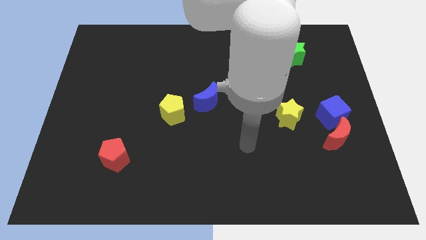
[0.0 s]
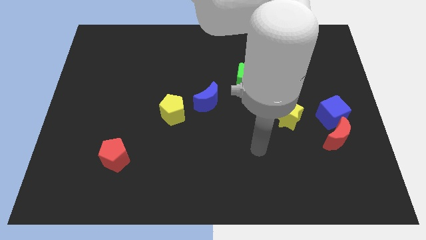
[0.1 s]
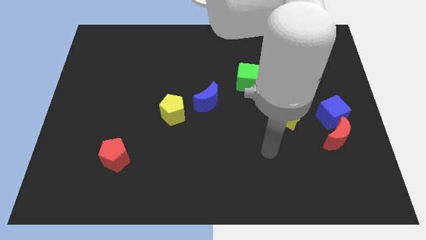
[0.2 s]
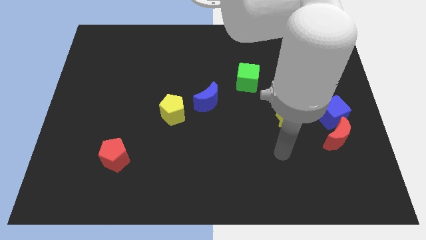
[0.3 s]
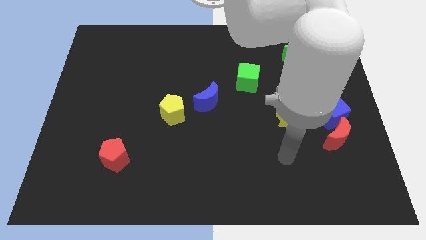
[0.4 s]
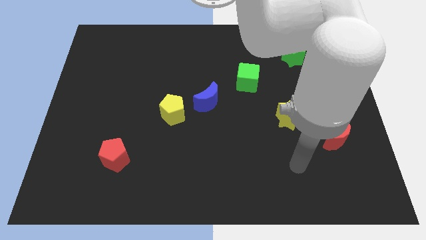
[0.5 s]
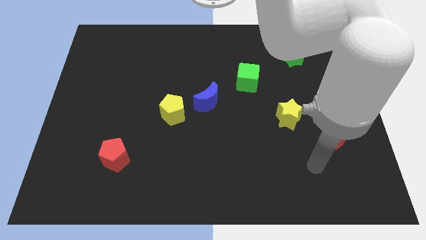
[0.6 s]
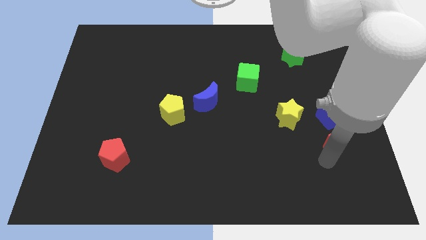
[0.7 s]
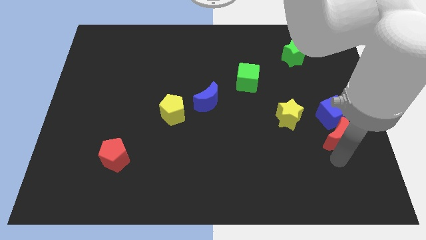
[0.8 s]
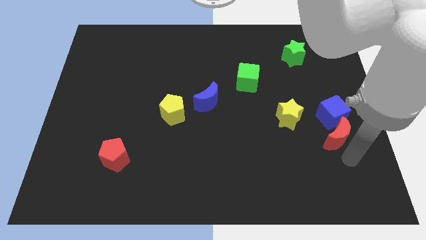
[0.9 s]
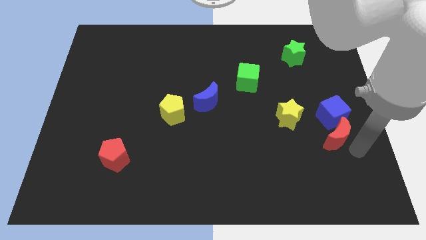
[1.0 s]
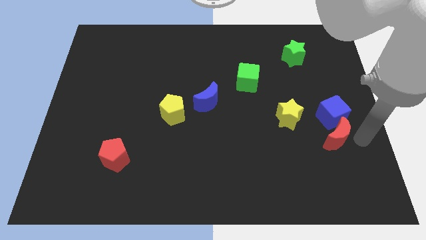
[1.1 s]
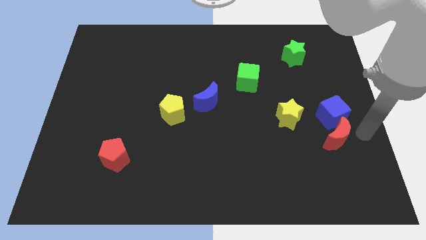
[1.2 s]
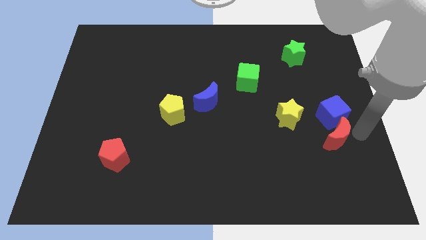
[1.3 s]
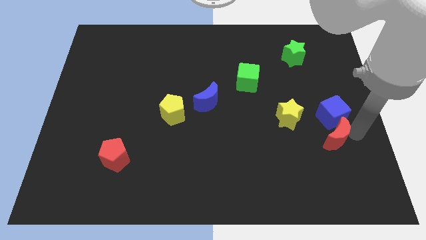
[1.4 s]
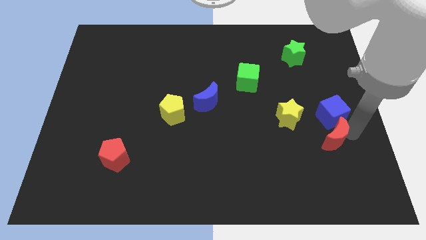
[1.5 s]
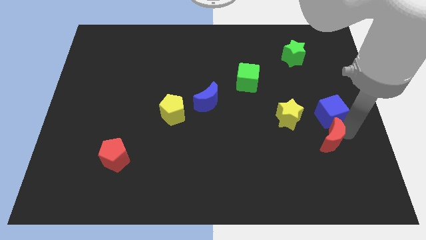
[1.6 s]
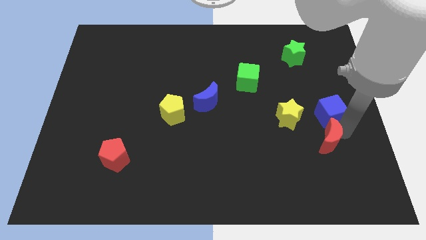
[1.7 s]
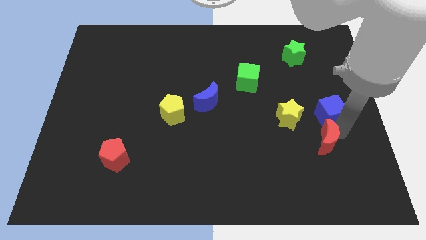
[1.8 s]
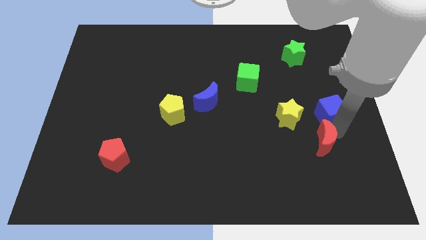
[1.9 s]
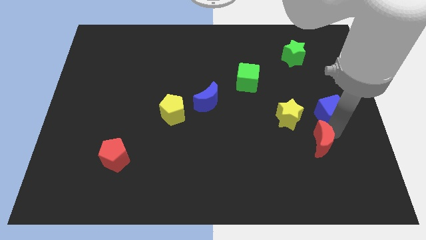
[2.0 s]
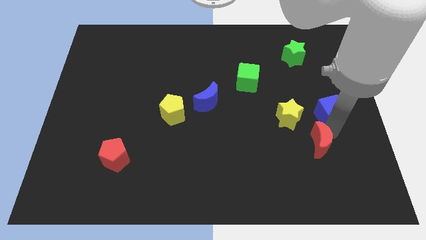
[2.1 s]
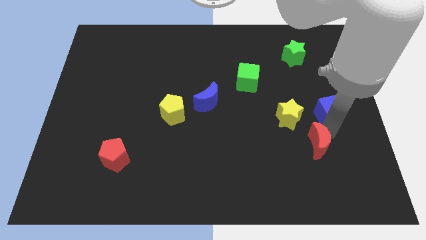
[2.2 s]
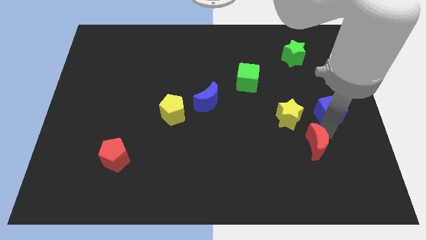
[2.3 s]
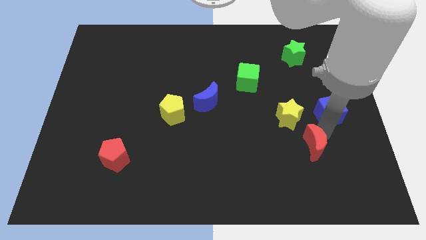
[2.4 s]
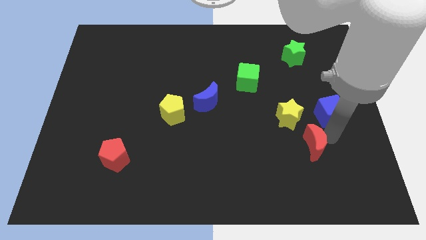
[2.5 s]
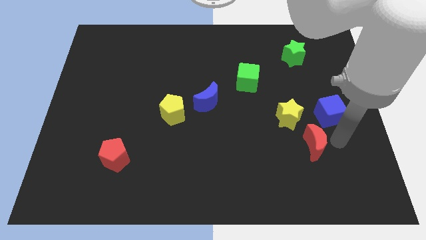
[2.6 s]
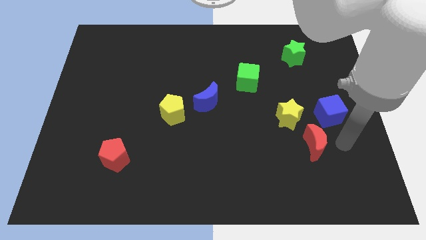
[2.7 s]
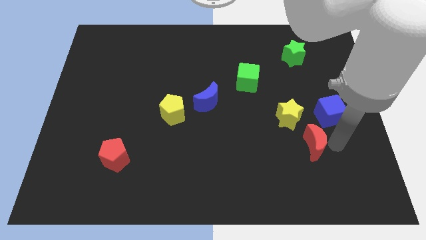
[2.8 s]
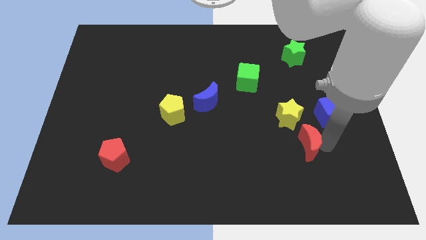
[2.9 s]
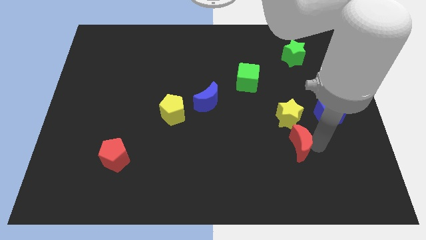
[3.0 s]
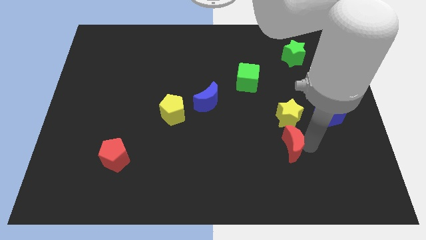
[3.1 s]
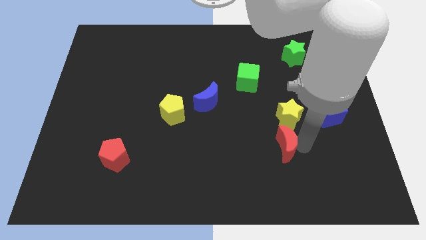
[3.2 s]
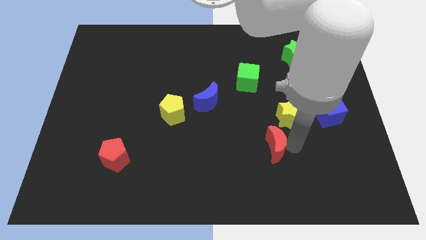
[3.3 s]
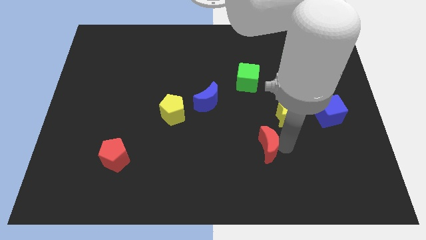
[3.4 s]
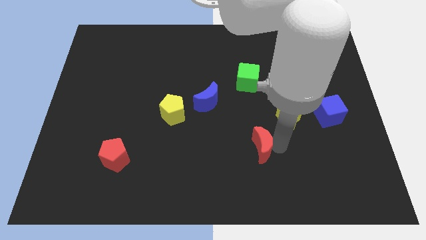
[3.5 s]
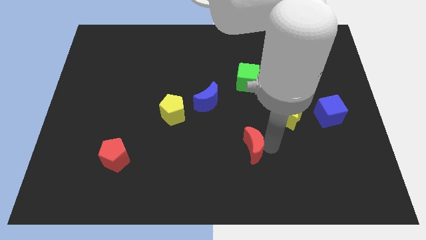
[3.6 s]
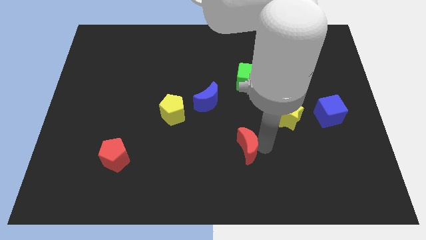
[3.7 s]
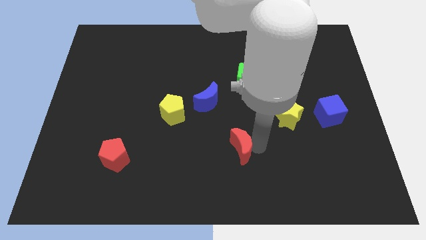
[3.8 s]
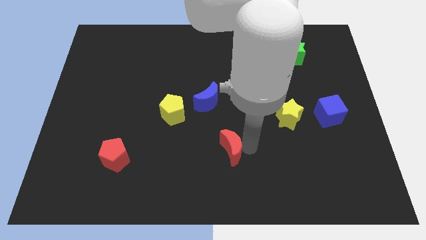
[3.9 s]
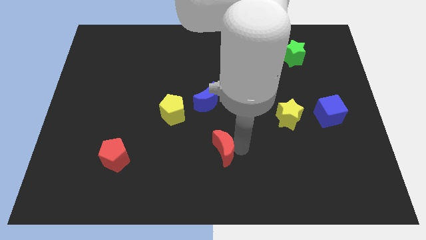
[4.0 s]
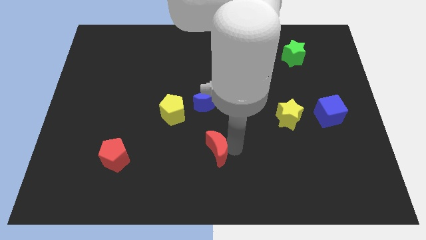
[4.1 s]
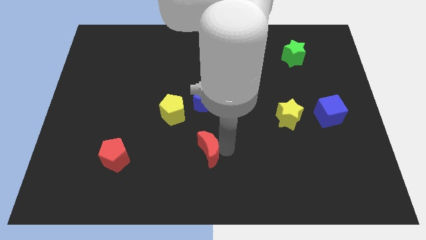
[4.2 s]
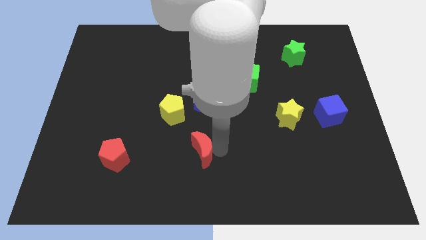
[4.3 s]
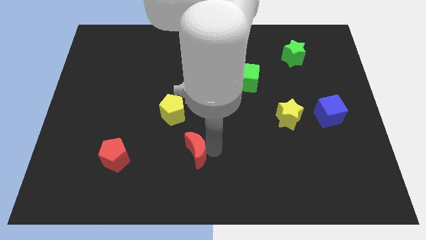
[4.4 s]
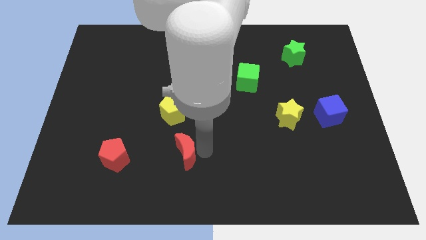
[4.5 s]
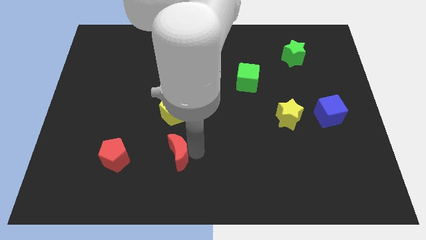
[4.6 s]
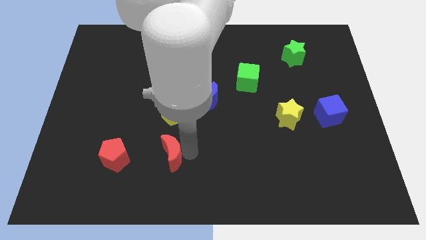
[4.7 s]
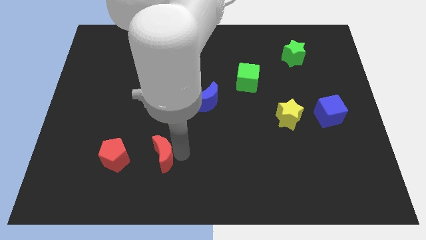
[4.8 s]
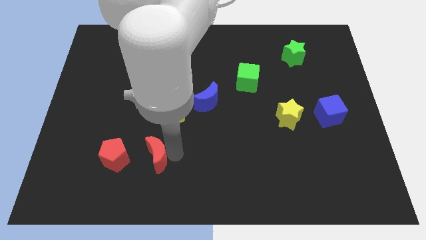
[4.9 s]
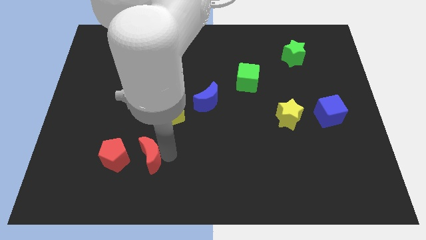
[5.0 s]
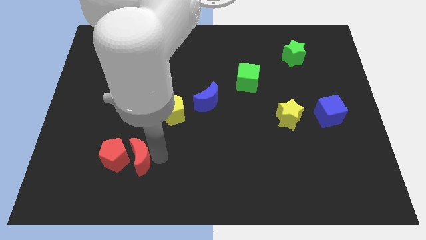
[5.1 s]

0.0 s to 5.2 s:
slide the red moon towards the red pentagon

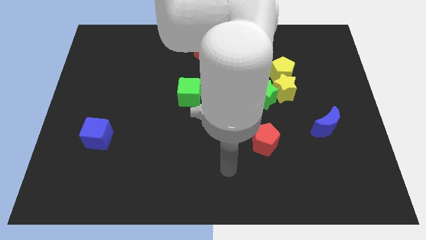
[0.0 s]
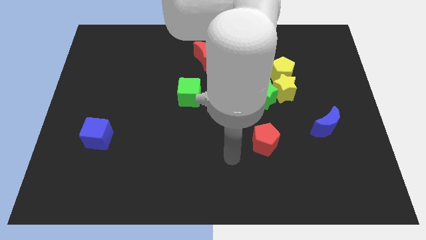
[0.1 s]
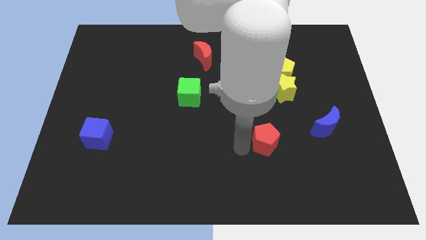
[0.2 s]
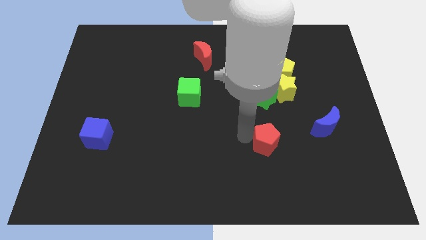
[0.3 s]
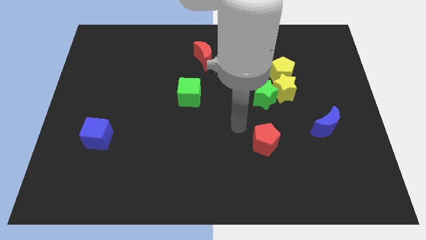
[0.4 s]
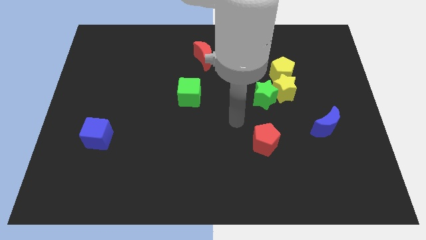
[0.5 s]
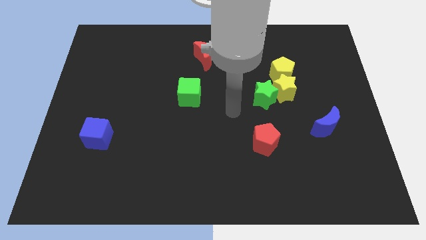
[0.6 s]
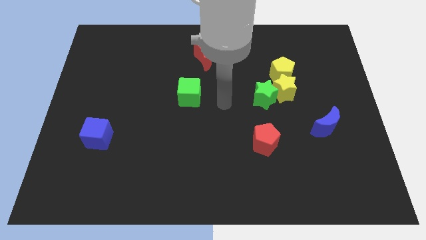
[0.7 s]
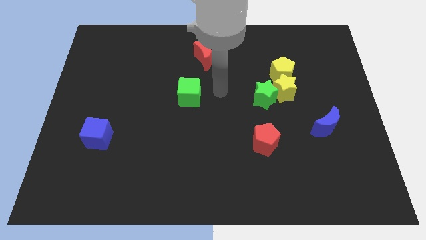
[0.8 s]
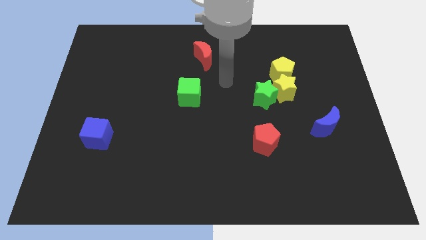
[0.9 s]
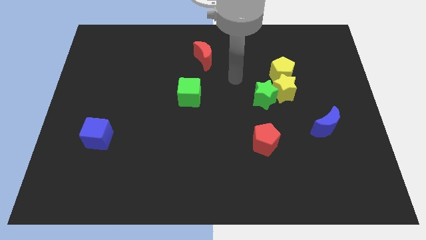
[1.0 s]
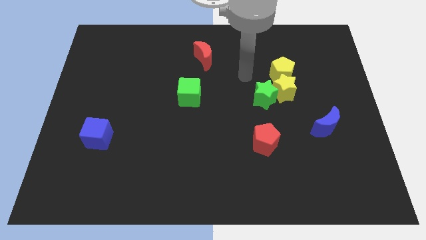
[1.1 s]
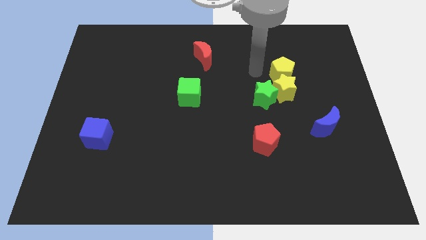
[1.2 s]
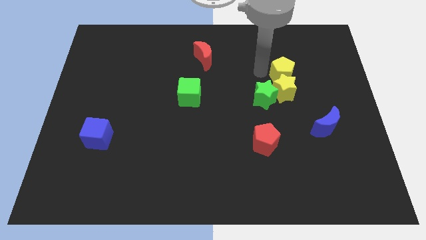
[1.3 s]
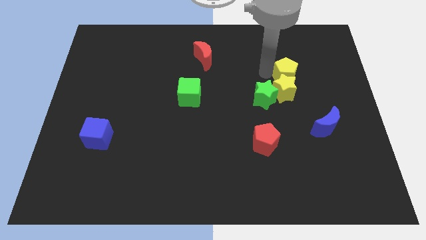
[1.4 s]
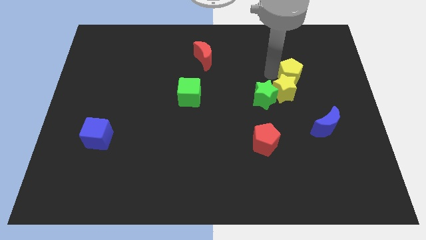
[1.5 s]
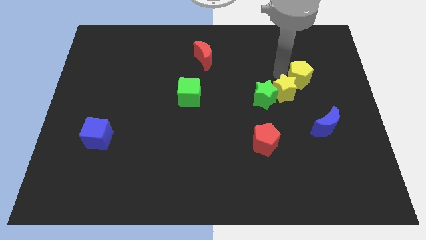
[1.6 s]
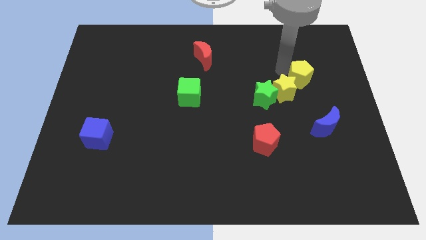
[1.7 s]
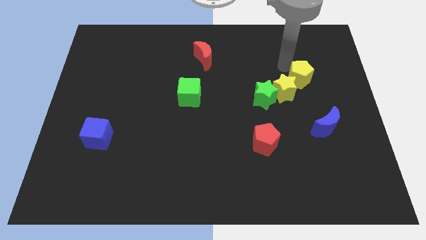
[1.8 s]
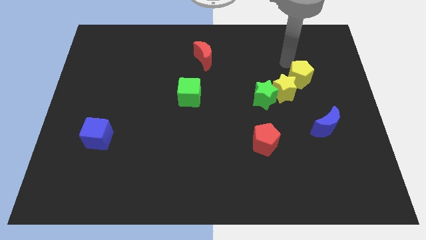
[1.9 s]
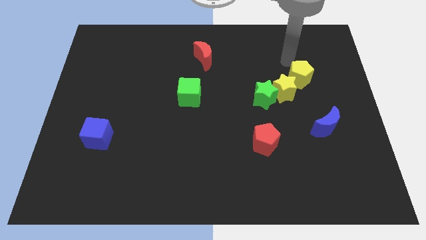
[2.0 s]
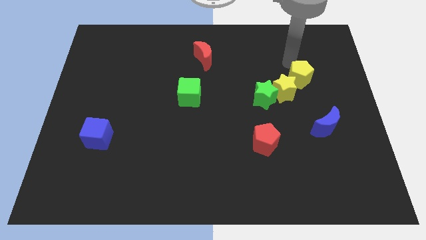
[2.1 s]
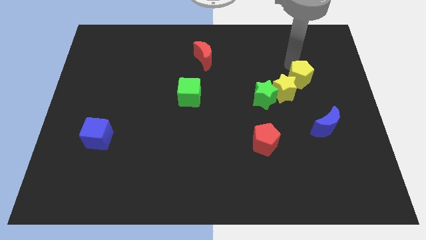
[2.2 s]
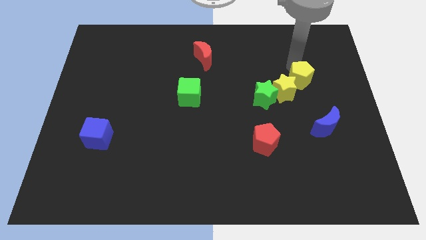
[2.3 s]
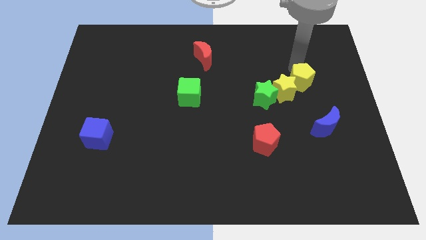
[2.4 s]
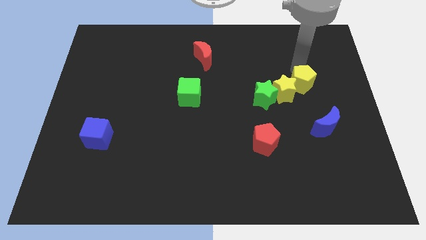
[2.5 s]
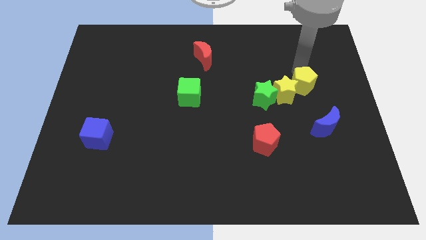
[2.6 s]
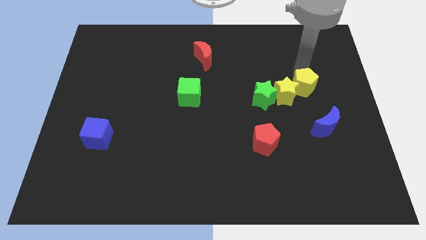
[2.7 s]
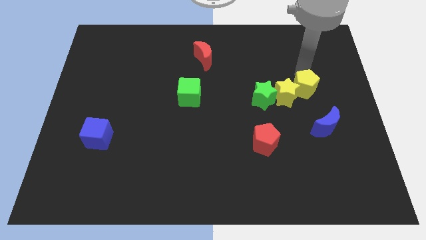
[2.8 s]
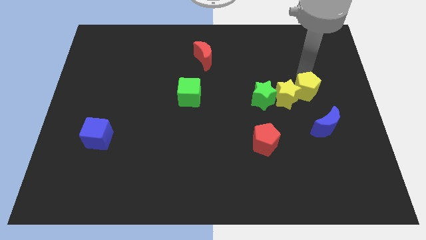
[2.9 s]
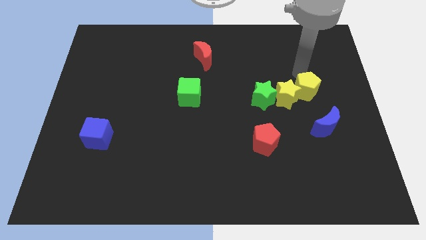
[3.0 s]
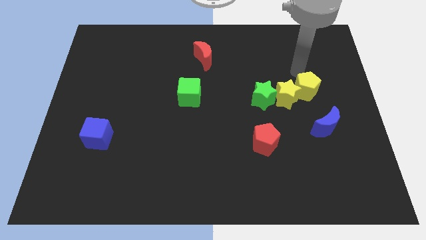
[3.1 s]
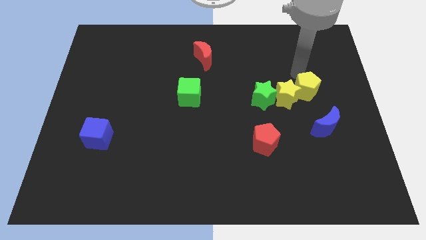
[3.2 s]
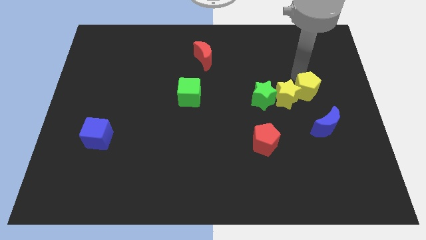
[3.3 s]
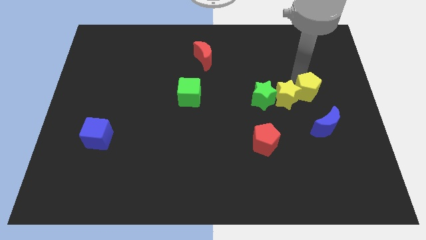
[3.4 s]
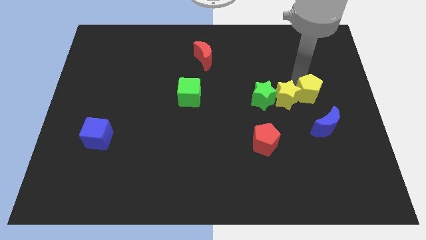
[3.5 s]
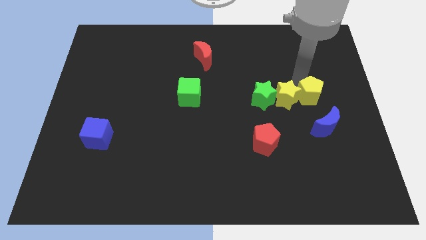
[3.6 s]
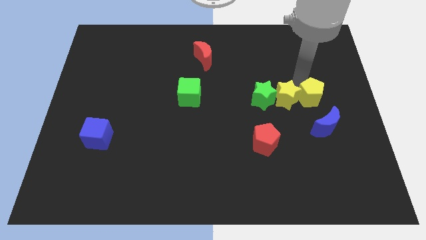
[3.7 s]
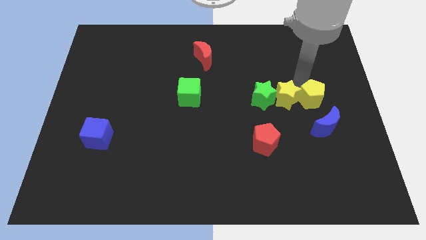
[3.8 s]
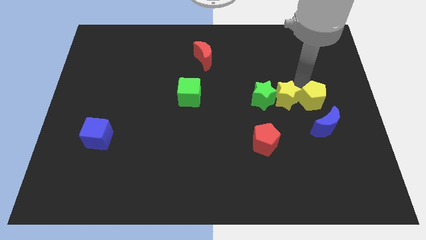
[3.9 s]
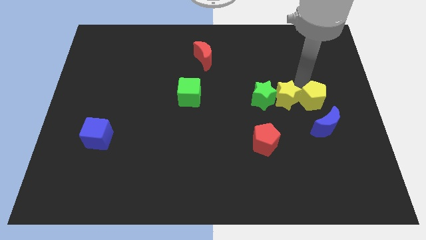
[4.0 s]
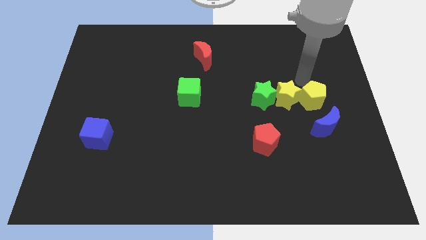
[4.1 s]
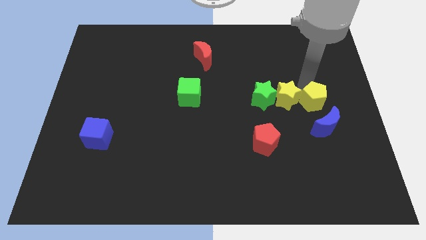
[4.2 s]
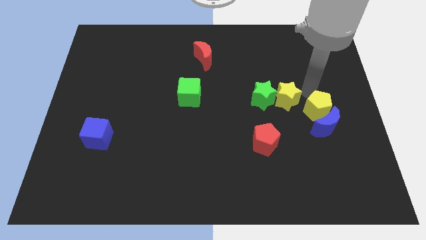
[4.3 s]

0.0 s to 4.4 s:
move the yellow pentagon to the blue moon
